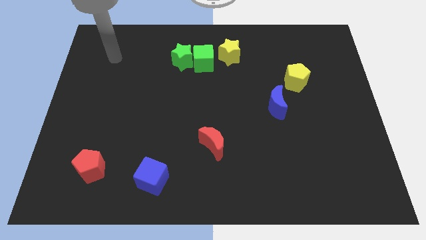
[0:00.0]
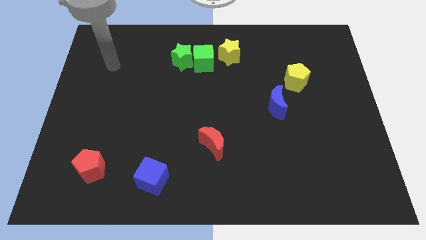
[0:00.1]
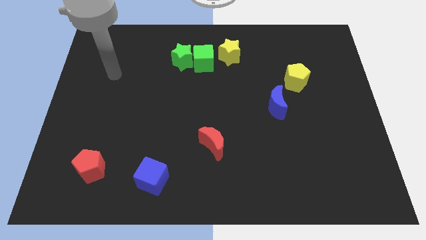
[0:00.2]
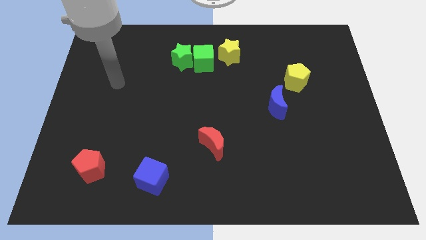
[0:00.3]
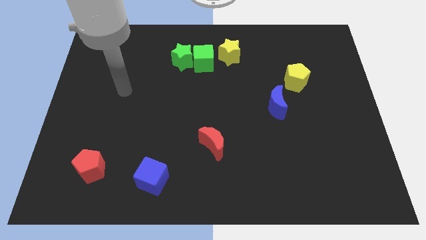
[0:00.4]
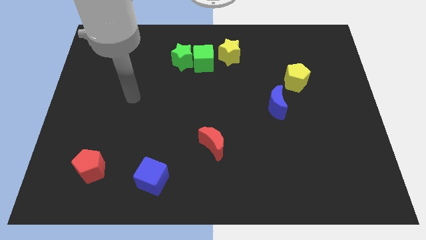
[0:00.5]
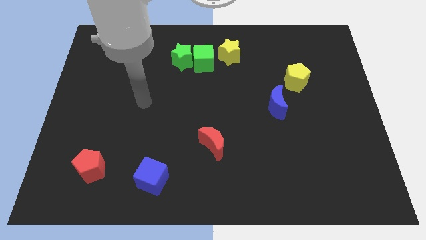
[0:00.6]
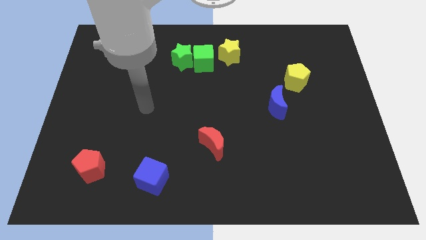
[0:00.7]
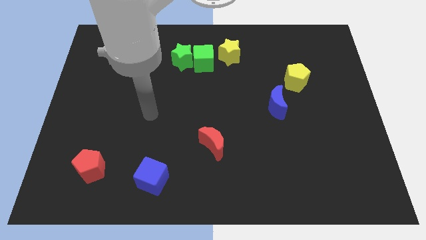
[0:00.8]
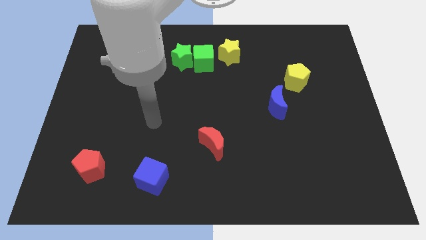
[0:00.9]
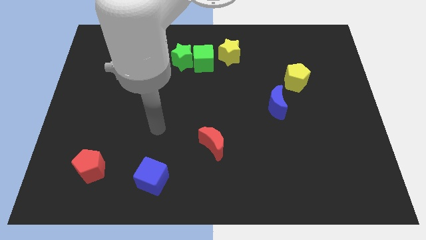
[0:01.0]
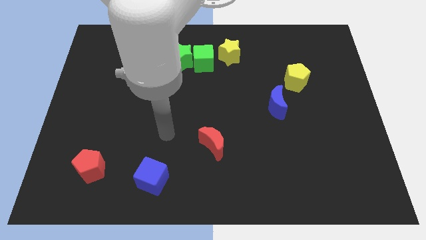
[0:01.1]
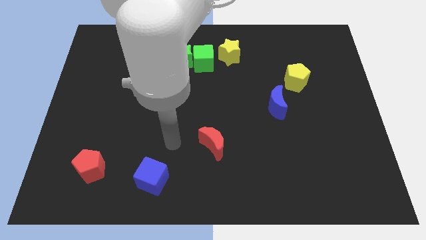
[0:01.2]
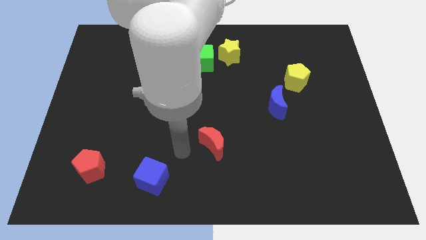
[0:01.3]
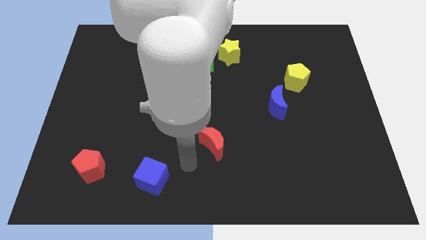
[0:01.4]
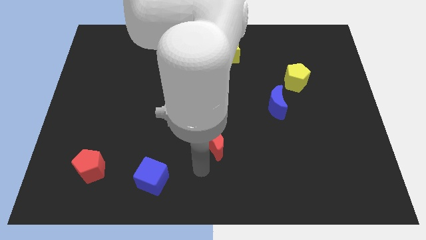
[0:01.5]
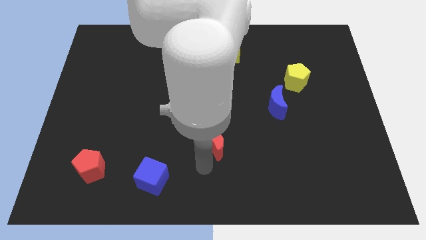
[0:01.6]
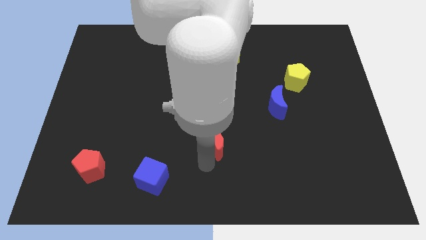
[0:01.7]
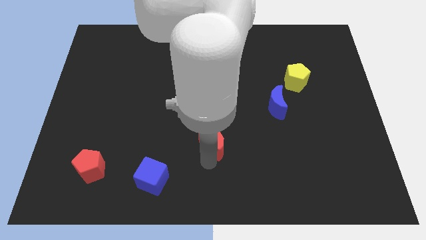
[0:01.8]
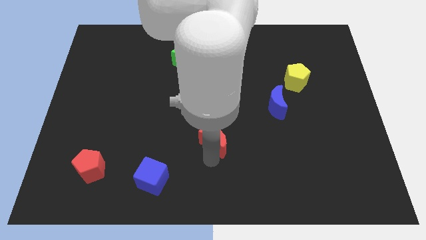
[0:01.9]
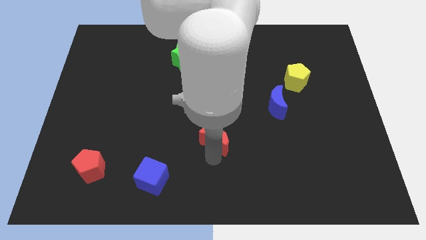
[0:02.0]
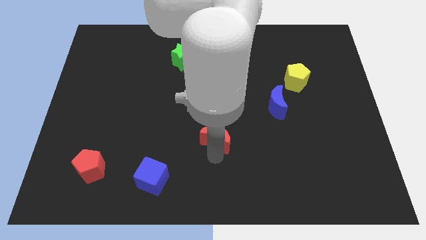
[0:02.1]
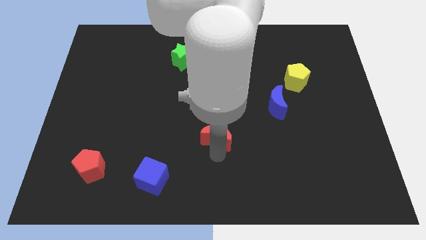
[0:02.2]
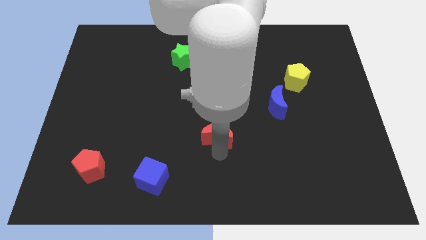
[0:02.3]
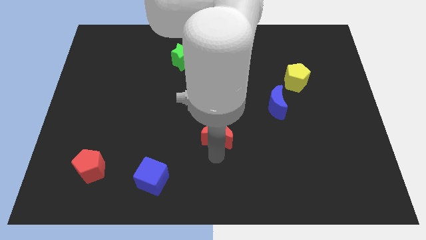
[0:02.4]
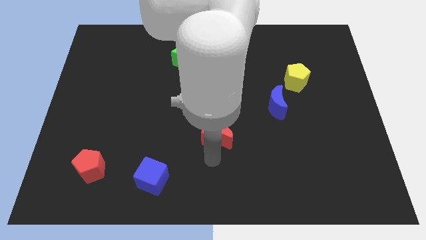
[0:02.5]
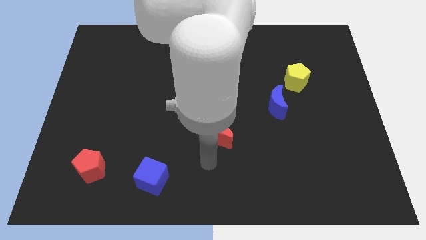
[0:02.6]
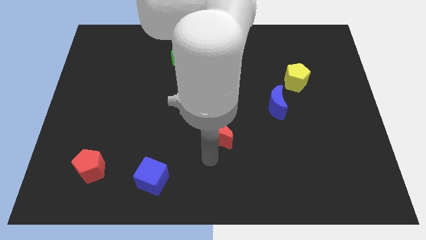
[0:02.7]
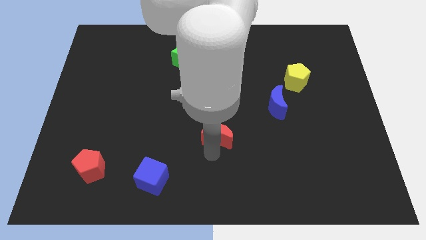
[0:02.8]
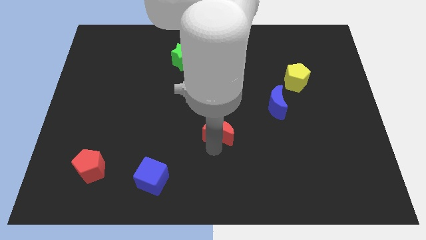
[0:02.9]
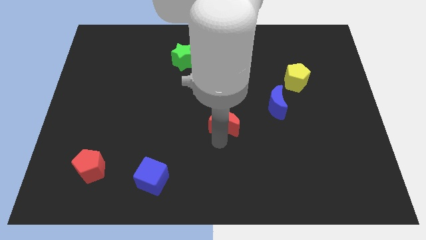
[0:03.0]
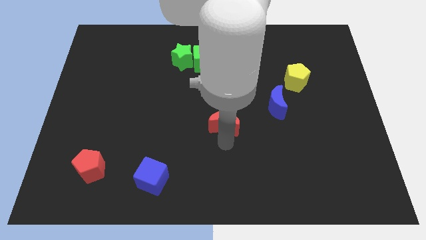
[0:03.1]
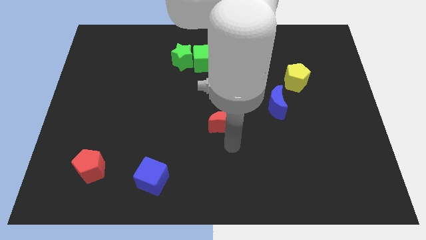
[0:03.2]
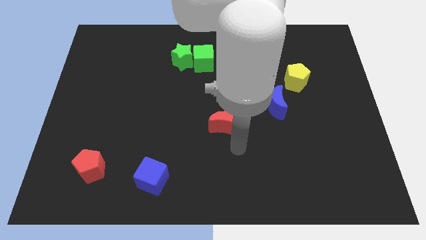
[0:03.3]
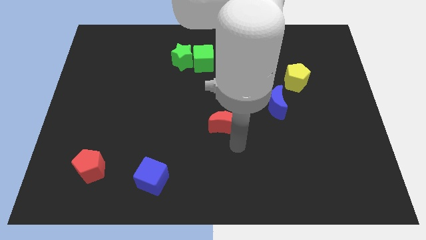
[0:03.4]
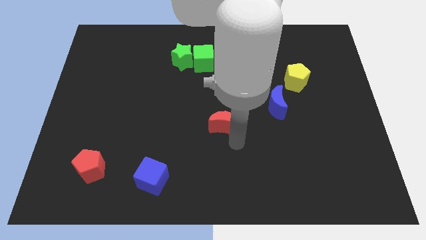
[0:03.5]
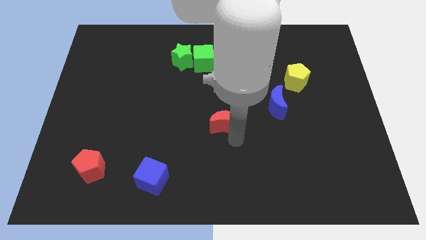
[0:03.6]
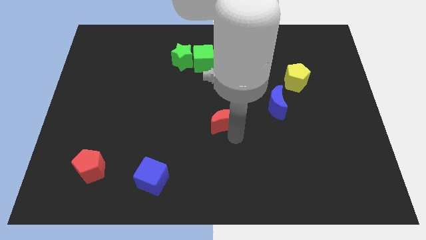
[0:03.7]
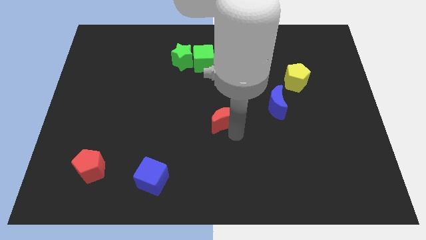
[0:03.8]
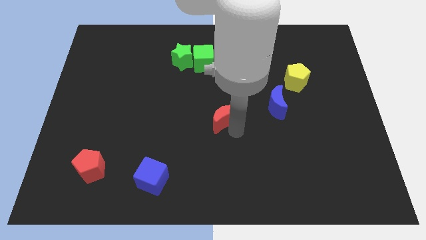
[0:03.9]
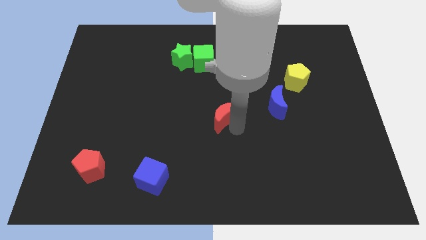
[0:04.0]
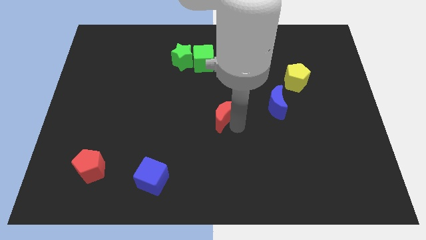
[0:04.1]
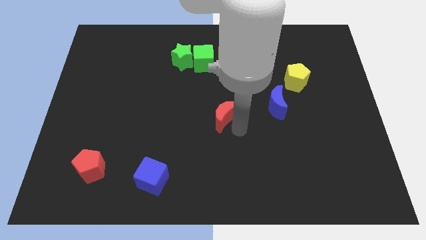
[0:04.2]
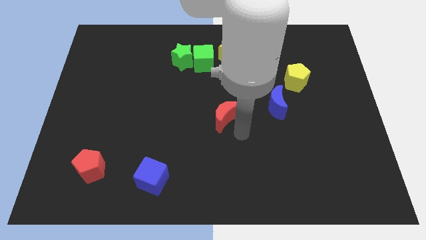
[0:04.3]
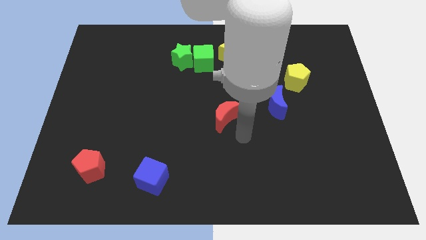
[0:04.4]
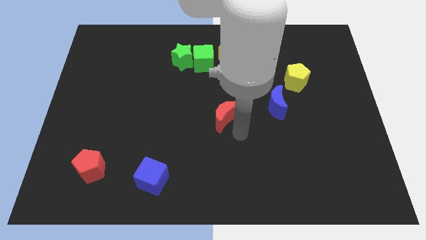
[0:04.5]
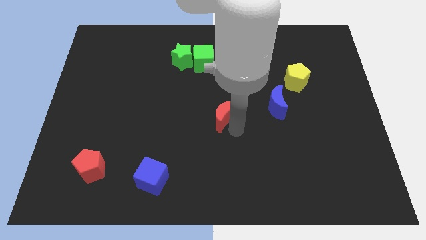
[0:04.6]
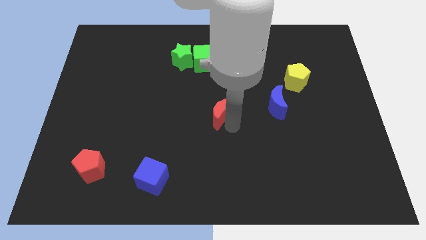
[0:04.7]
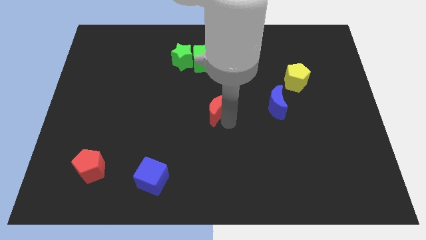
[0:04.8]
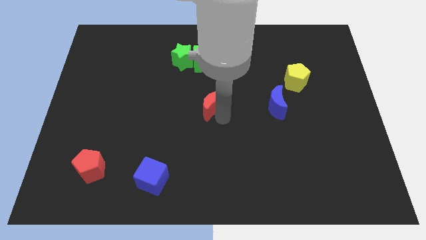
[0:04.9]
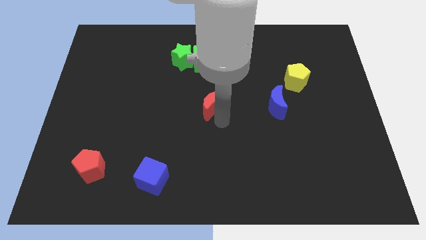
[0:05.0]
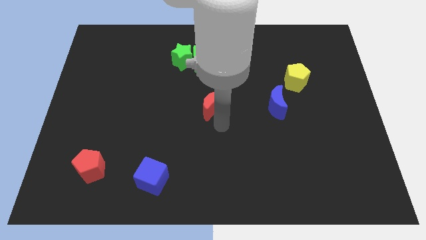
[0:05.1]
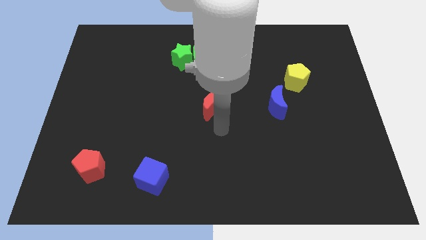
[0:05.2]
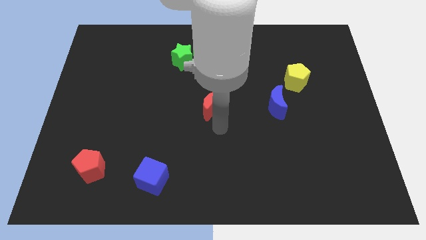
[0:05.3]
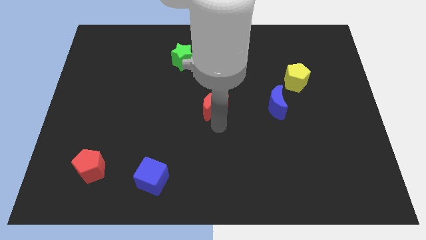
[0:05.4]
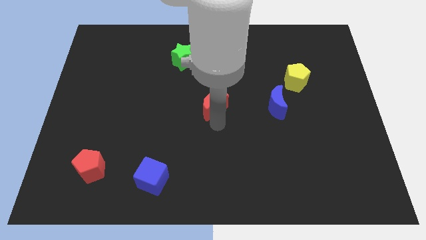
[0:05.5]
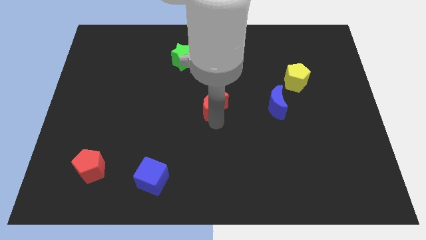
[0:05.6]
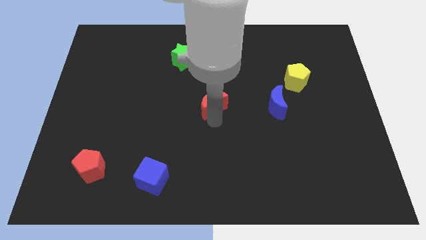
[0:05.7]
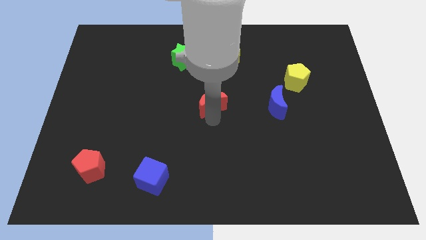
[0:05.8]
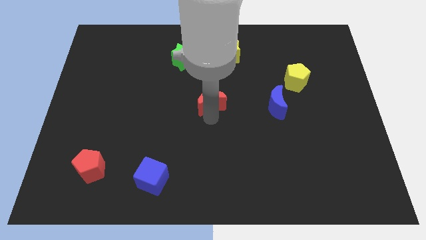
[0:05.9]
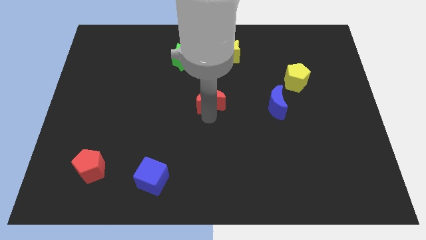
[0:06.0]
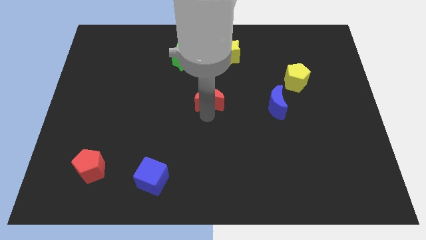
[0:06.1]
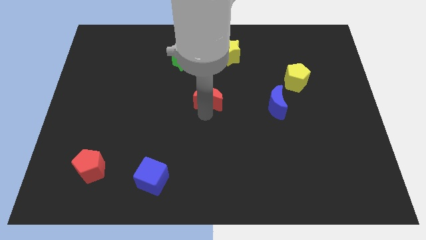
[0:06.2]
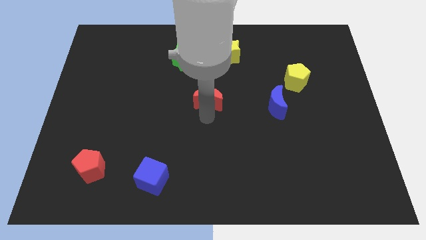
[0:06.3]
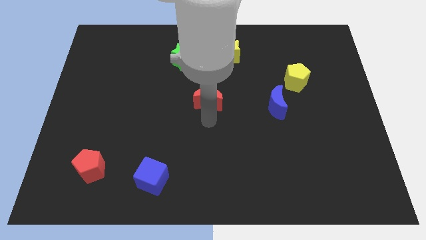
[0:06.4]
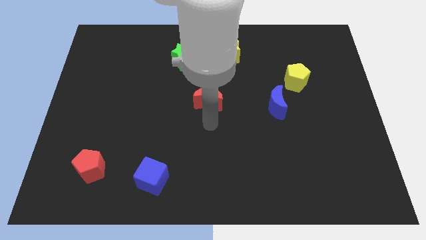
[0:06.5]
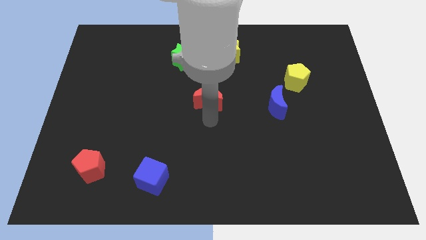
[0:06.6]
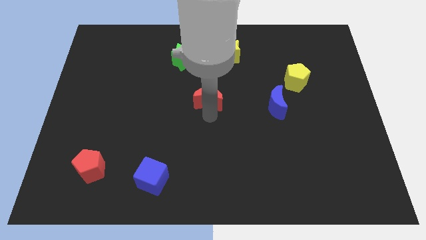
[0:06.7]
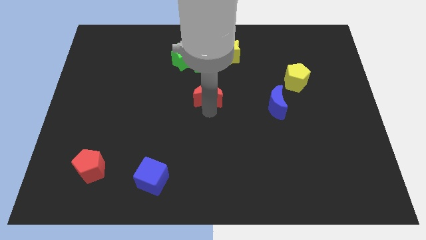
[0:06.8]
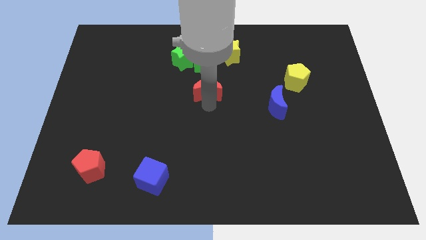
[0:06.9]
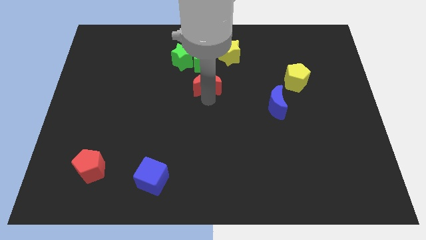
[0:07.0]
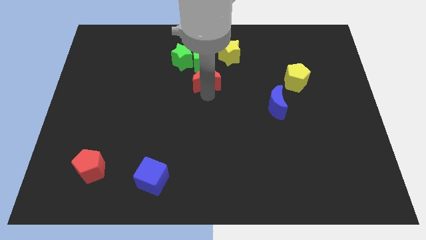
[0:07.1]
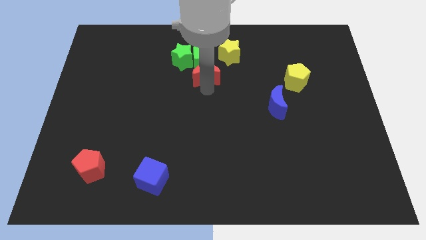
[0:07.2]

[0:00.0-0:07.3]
push the red moon to the green cube

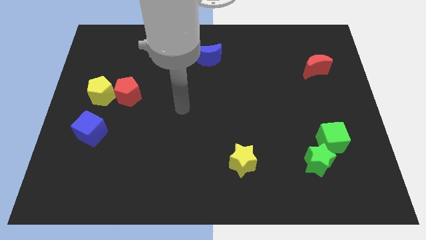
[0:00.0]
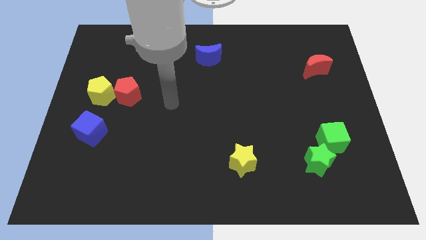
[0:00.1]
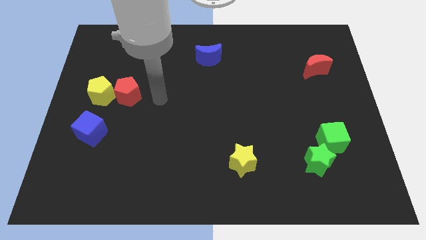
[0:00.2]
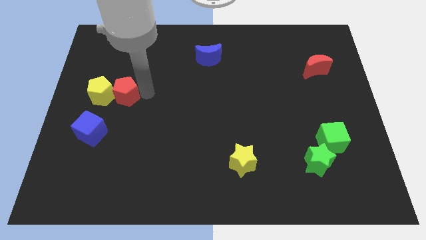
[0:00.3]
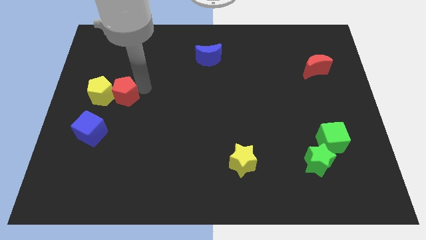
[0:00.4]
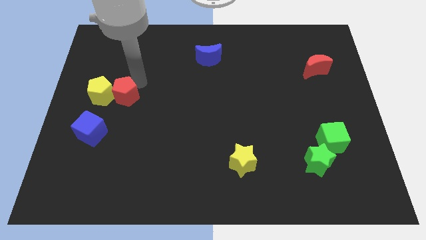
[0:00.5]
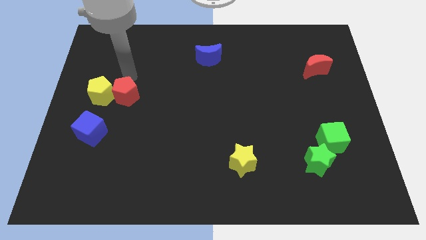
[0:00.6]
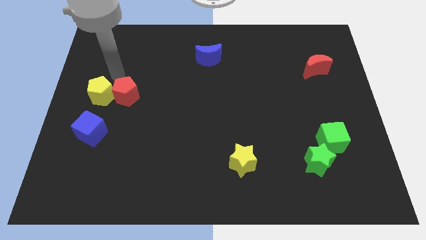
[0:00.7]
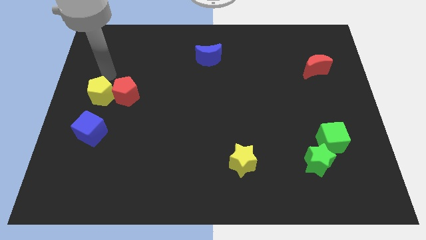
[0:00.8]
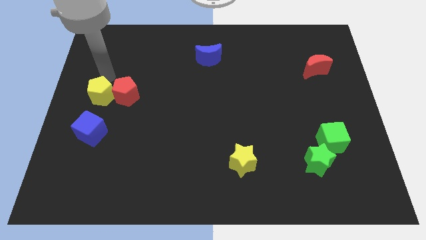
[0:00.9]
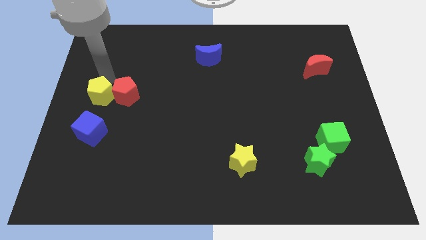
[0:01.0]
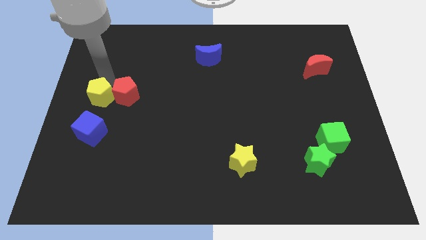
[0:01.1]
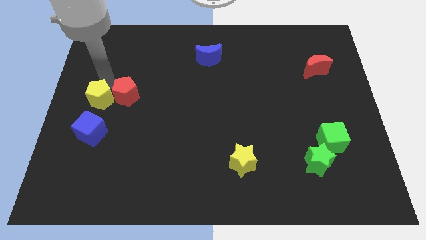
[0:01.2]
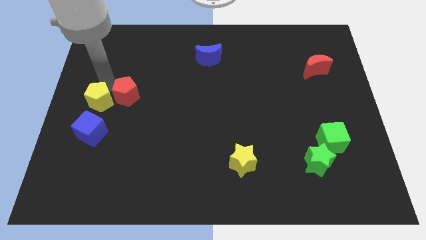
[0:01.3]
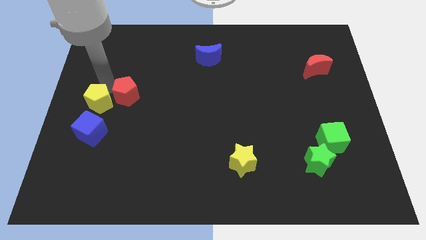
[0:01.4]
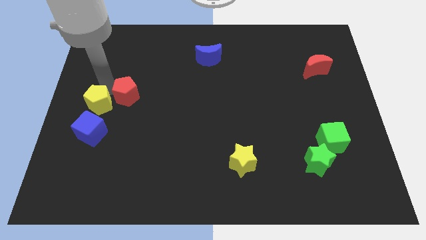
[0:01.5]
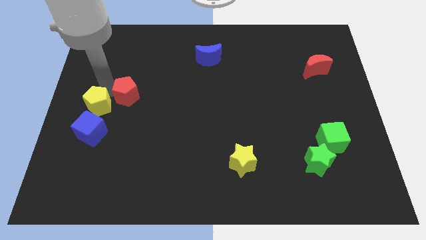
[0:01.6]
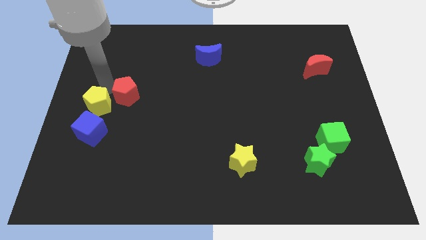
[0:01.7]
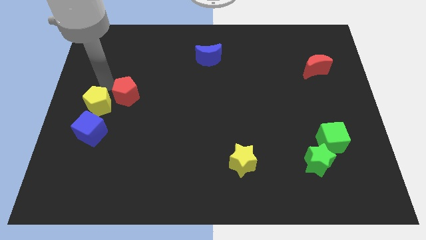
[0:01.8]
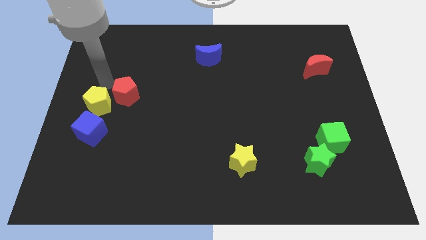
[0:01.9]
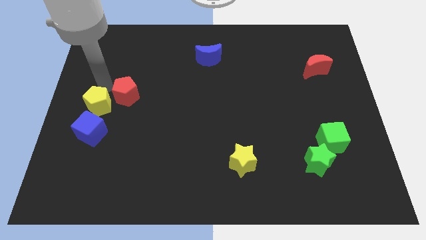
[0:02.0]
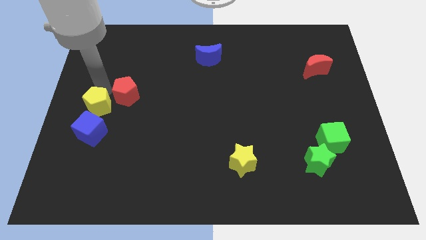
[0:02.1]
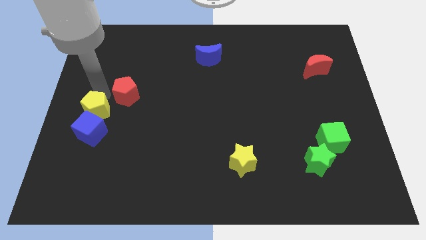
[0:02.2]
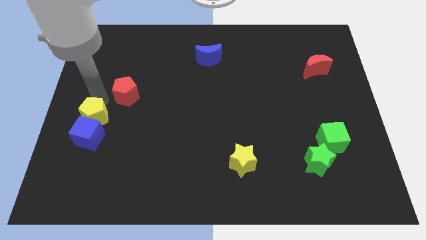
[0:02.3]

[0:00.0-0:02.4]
move the yellow pentagon close to the blue cube
